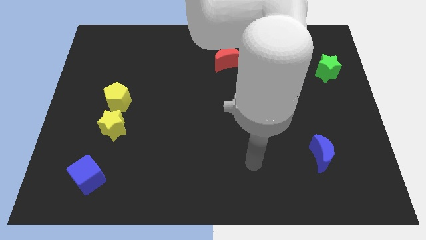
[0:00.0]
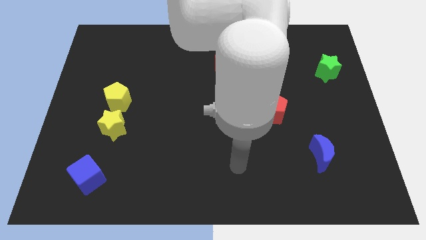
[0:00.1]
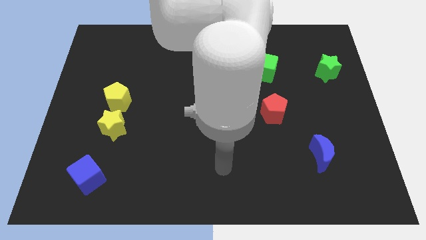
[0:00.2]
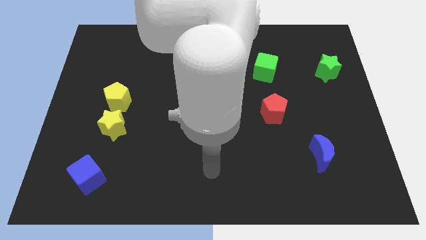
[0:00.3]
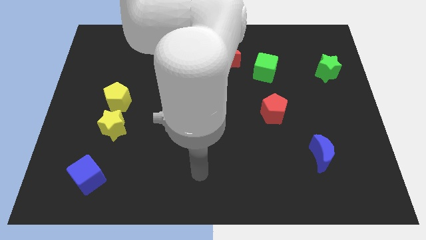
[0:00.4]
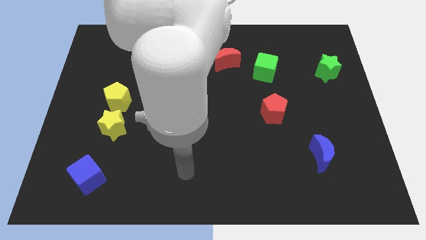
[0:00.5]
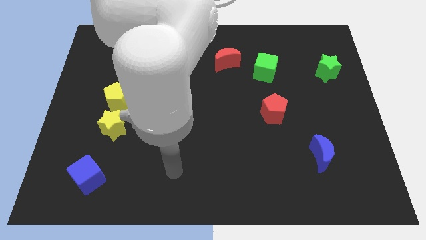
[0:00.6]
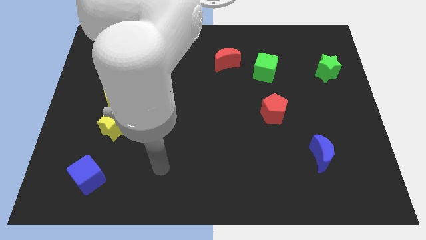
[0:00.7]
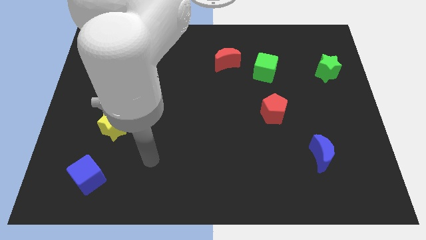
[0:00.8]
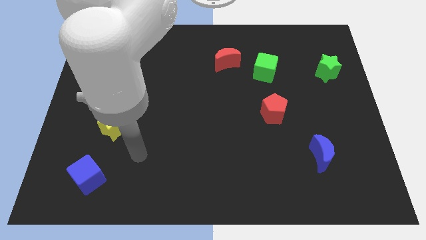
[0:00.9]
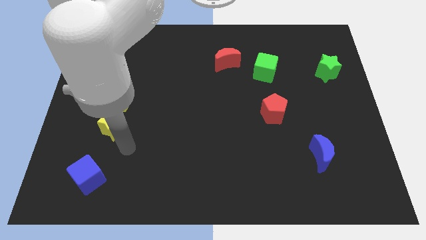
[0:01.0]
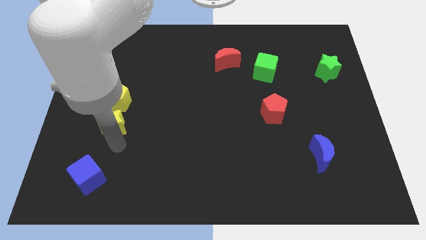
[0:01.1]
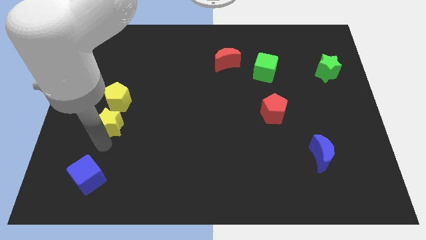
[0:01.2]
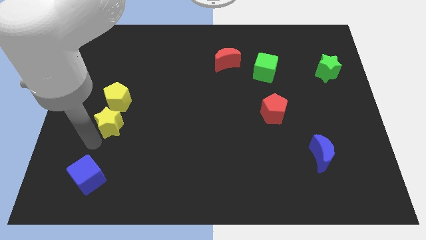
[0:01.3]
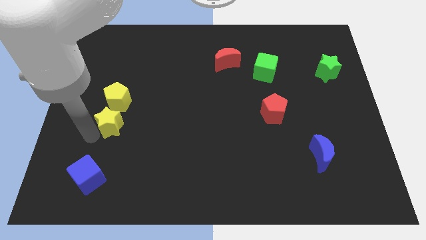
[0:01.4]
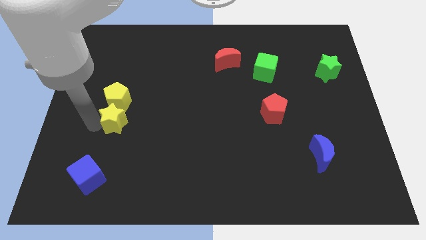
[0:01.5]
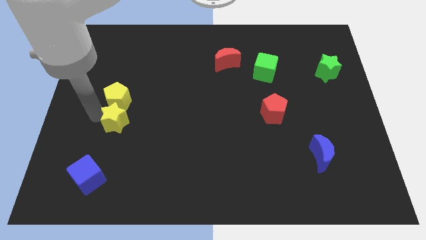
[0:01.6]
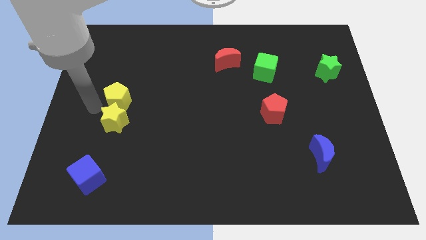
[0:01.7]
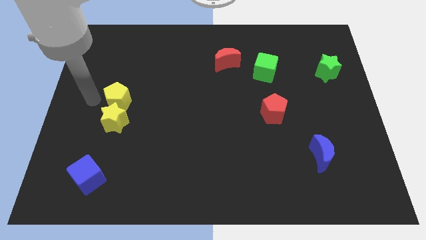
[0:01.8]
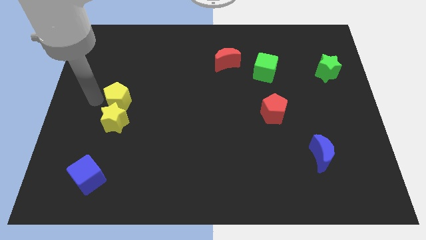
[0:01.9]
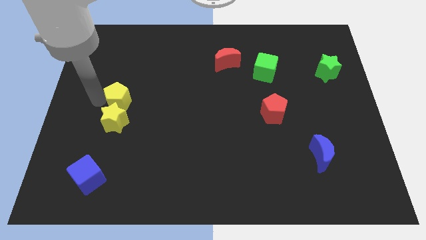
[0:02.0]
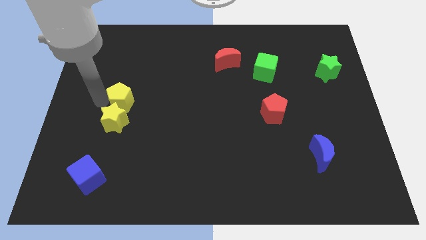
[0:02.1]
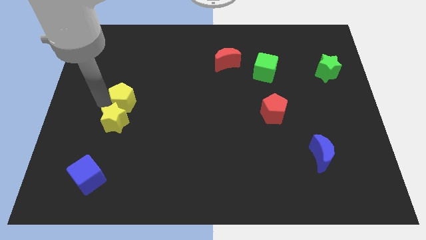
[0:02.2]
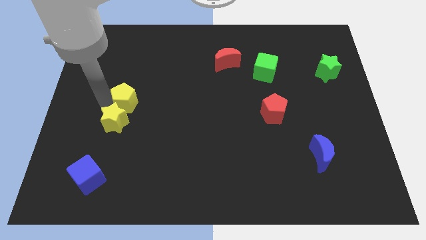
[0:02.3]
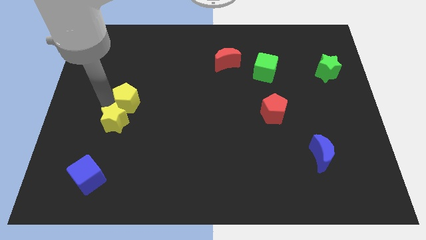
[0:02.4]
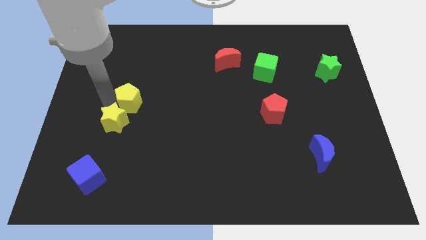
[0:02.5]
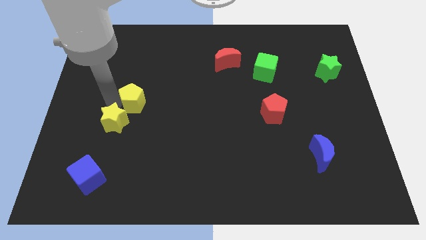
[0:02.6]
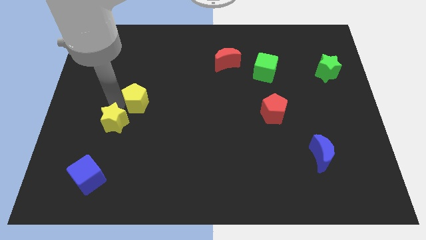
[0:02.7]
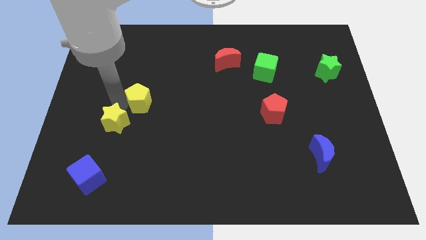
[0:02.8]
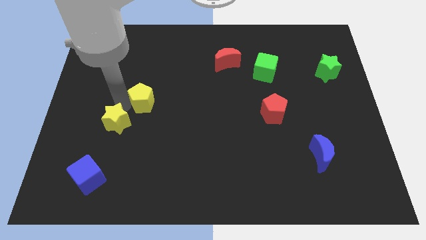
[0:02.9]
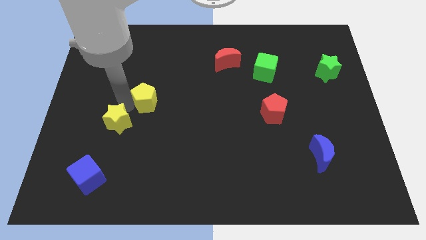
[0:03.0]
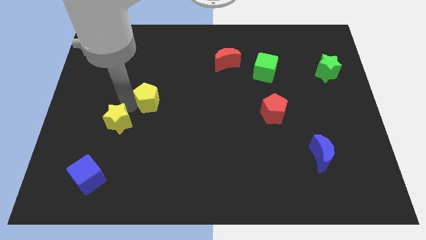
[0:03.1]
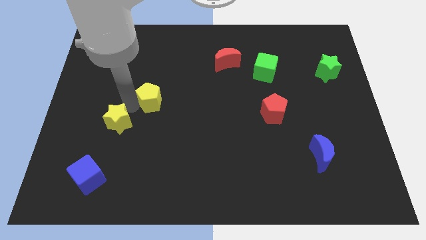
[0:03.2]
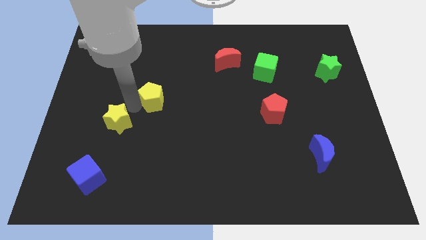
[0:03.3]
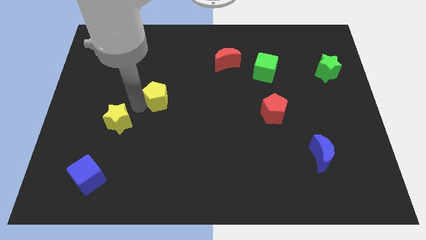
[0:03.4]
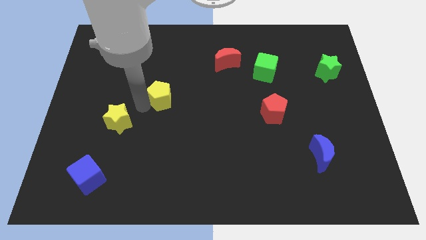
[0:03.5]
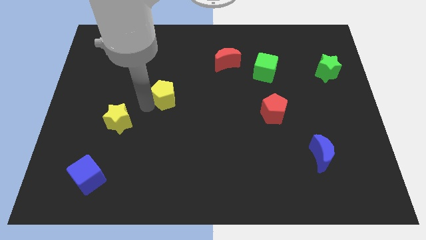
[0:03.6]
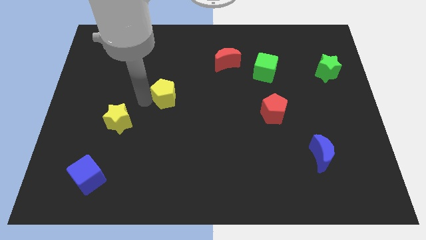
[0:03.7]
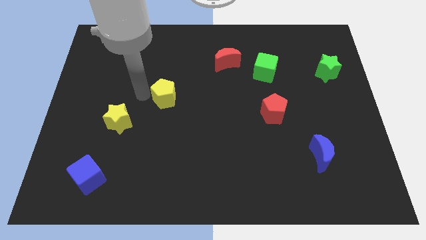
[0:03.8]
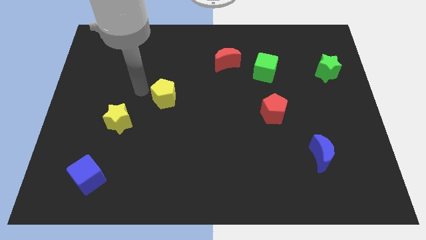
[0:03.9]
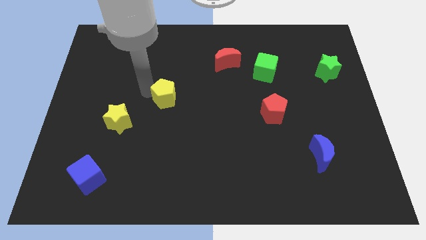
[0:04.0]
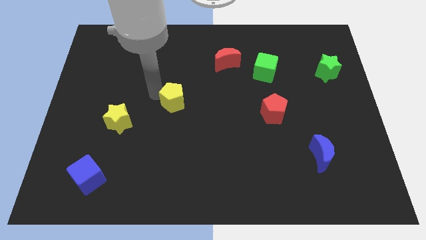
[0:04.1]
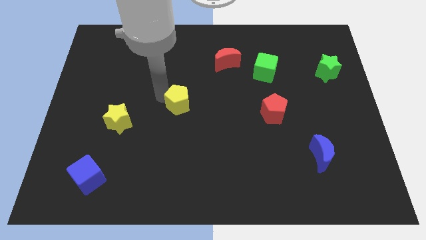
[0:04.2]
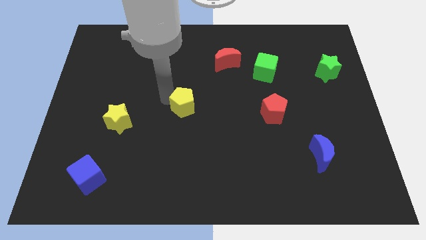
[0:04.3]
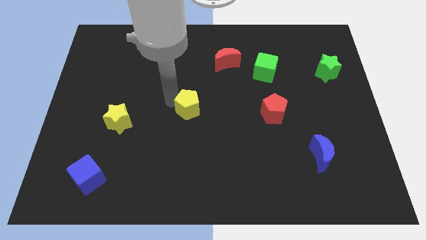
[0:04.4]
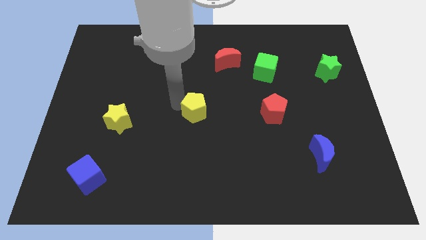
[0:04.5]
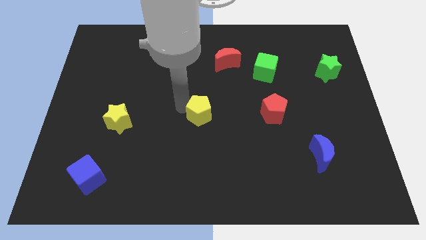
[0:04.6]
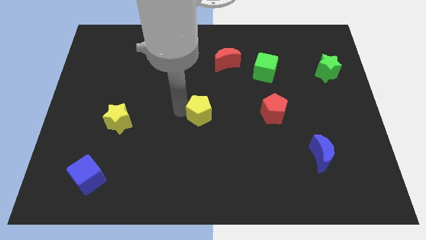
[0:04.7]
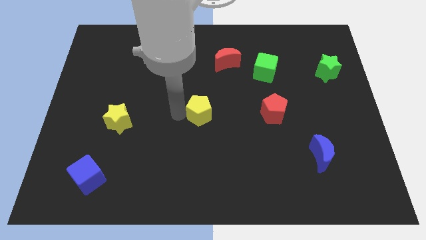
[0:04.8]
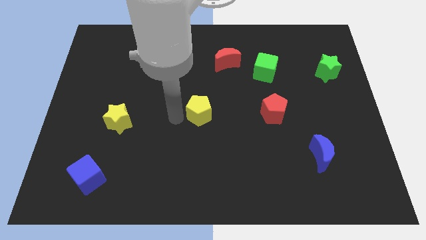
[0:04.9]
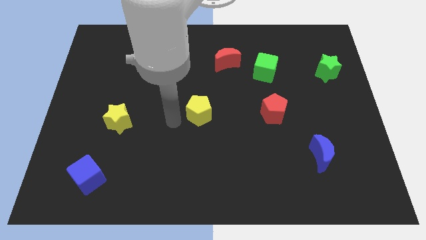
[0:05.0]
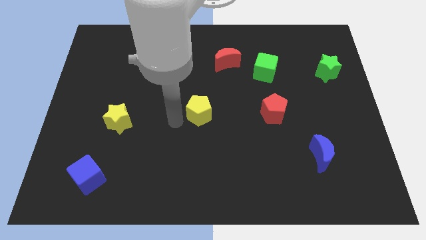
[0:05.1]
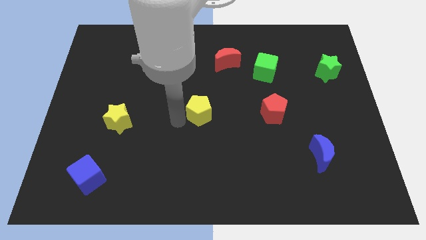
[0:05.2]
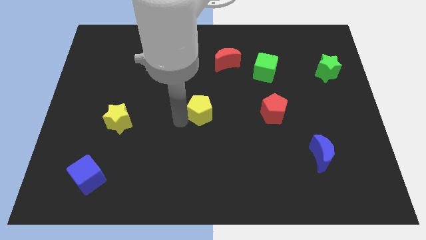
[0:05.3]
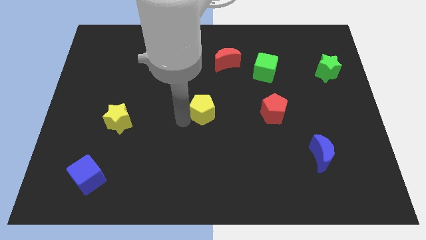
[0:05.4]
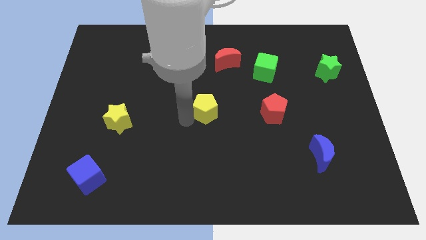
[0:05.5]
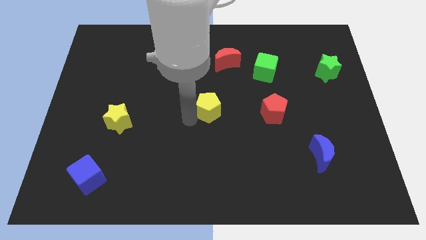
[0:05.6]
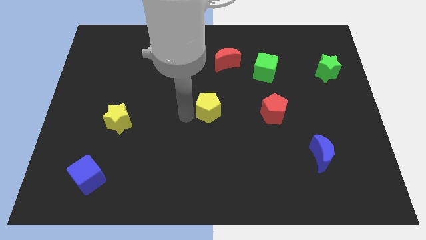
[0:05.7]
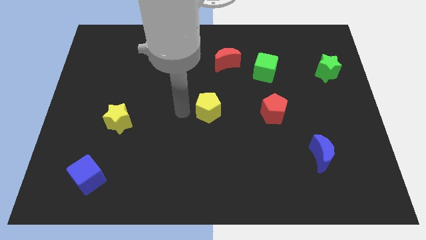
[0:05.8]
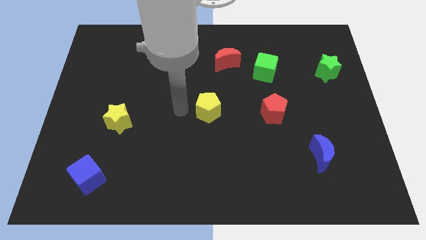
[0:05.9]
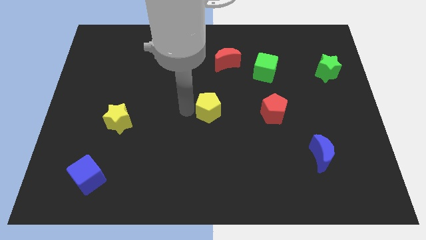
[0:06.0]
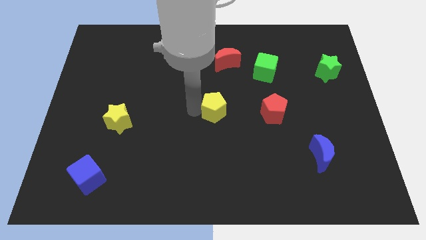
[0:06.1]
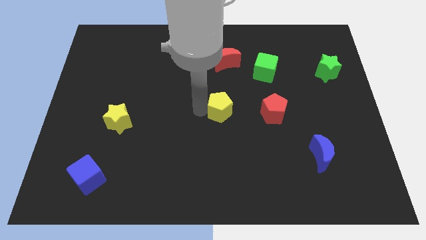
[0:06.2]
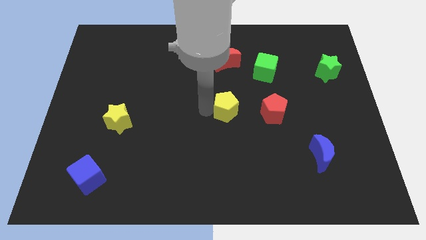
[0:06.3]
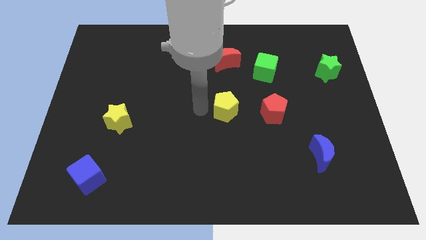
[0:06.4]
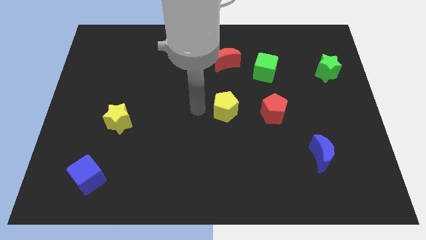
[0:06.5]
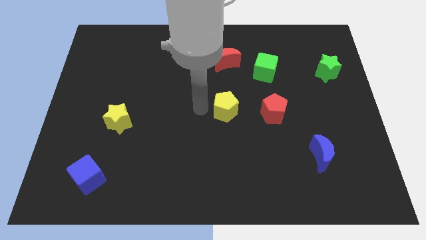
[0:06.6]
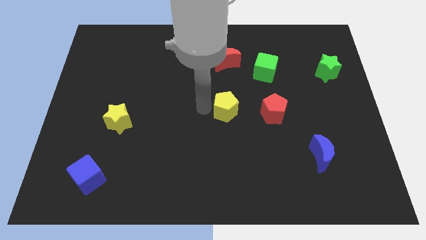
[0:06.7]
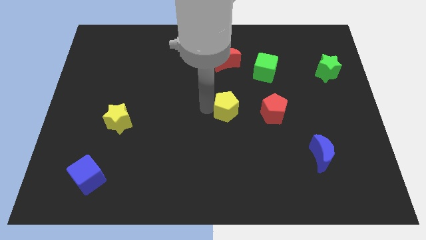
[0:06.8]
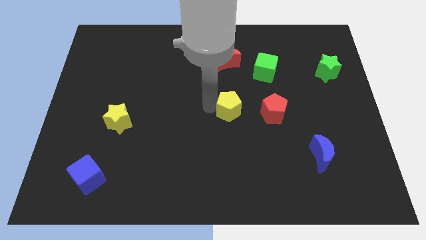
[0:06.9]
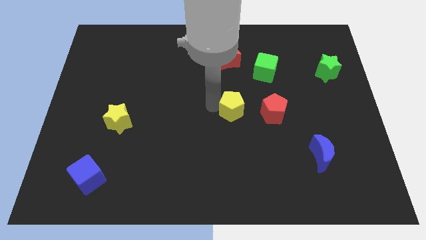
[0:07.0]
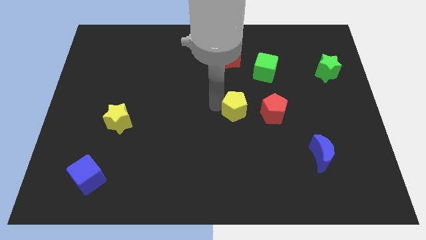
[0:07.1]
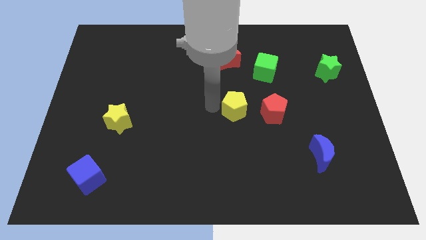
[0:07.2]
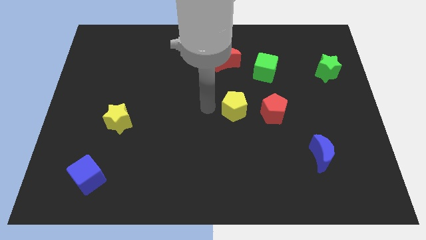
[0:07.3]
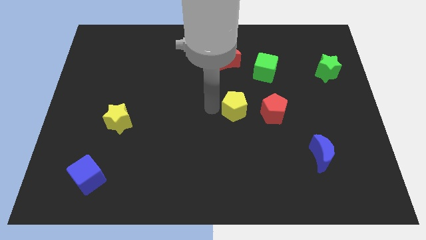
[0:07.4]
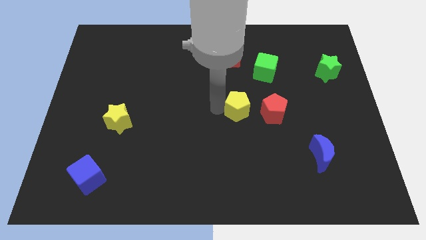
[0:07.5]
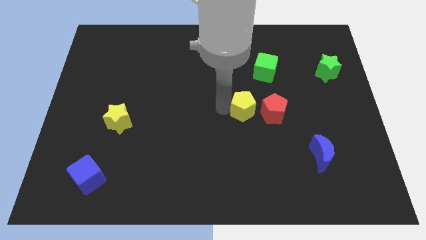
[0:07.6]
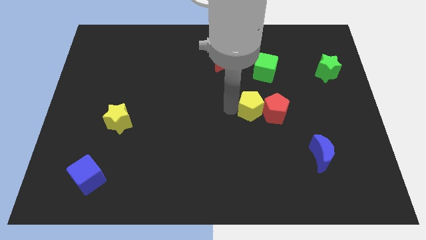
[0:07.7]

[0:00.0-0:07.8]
move the yellow pentagon to the red pentagon
